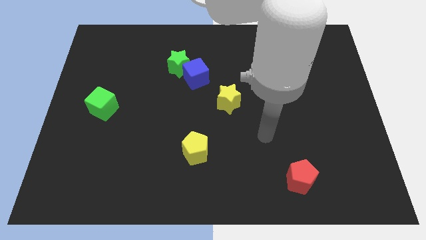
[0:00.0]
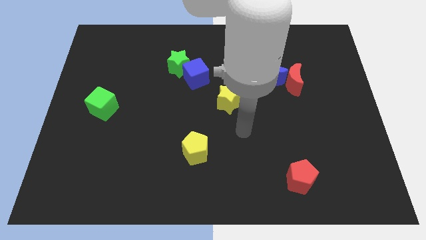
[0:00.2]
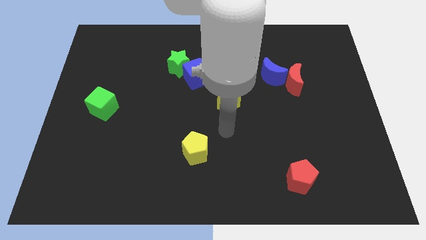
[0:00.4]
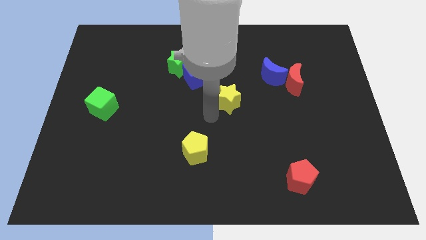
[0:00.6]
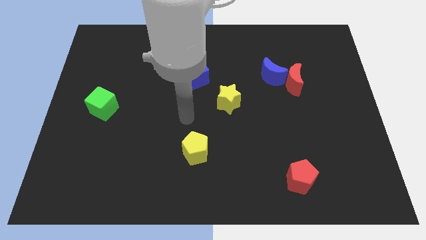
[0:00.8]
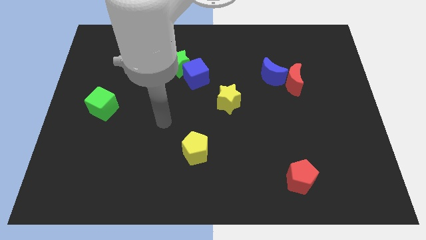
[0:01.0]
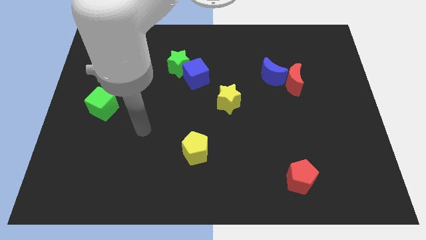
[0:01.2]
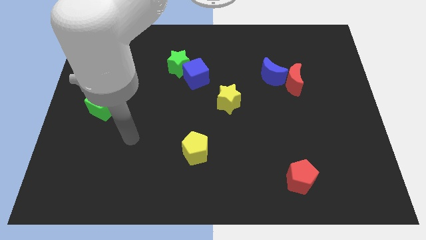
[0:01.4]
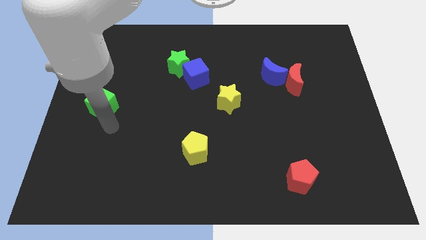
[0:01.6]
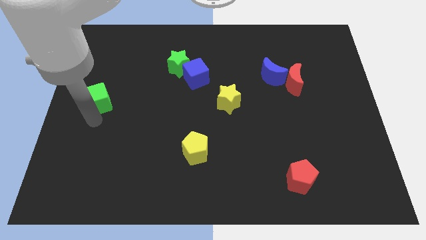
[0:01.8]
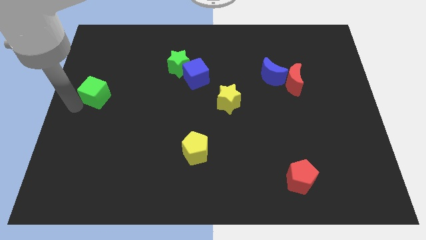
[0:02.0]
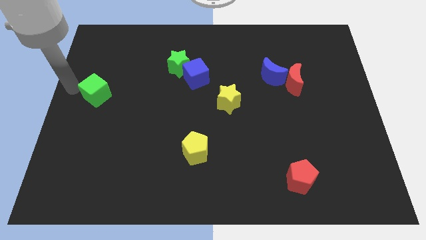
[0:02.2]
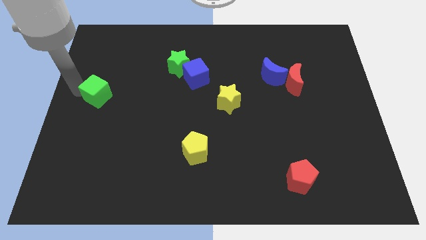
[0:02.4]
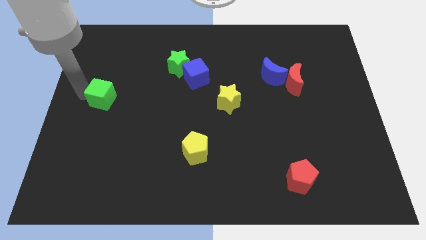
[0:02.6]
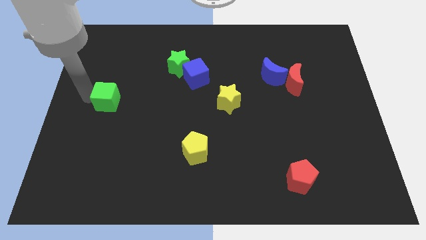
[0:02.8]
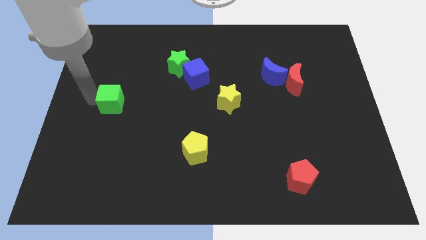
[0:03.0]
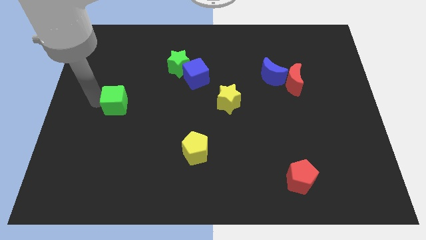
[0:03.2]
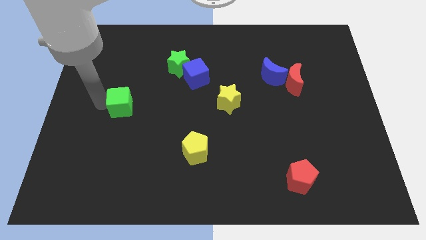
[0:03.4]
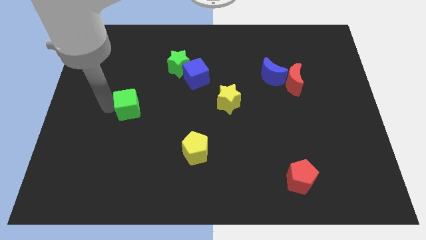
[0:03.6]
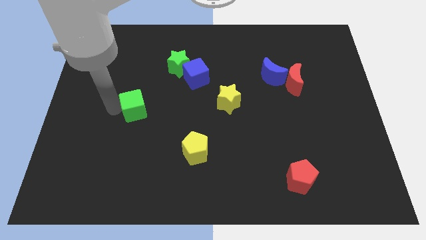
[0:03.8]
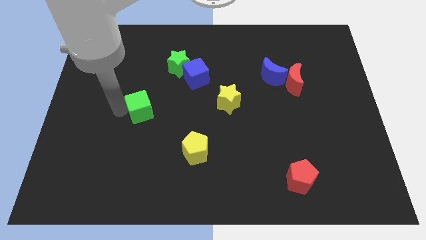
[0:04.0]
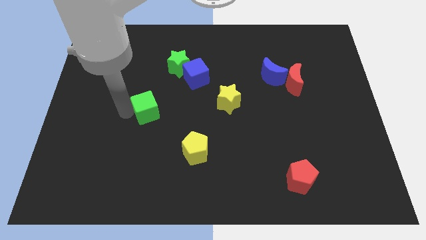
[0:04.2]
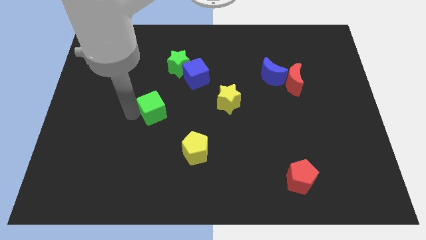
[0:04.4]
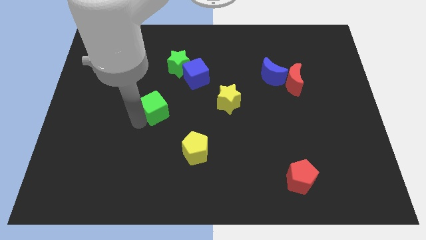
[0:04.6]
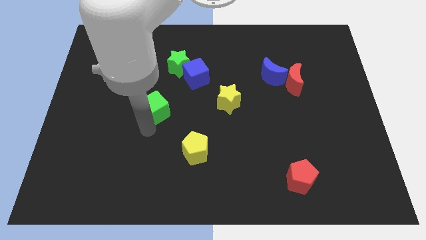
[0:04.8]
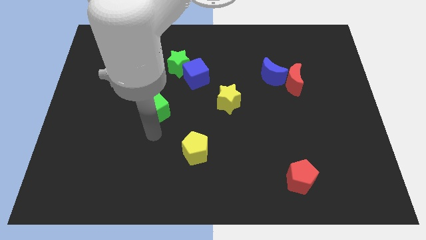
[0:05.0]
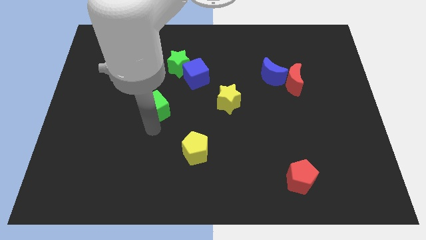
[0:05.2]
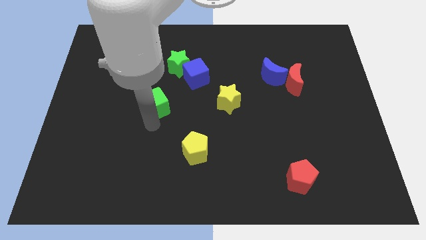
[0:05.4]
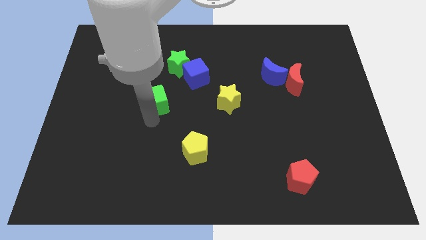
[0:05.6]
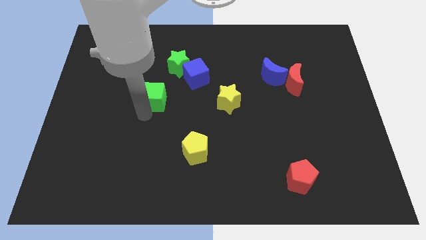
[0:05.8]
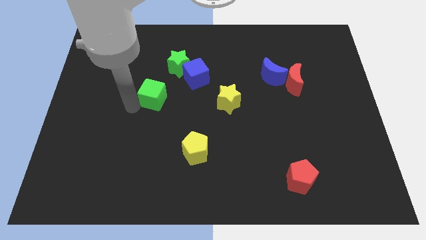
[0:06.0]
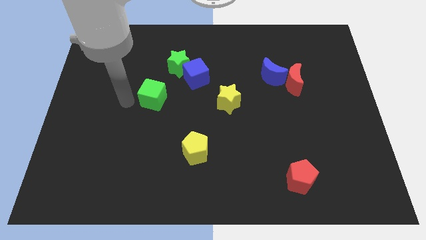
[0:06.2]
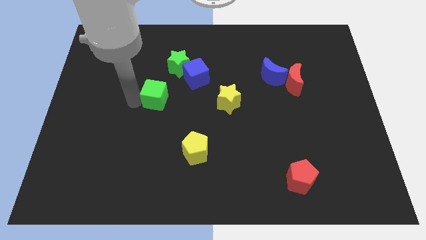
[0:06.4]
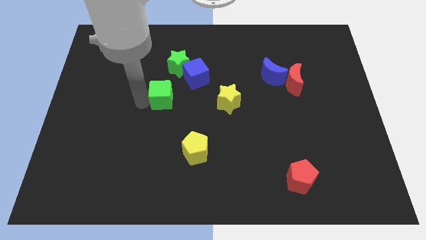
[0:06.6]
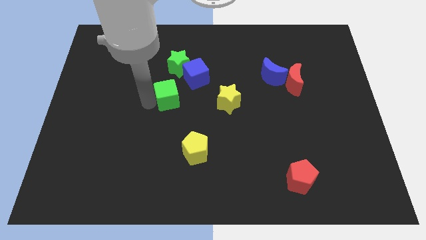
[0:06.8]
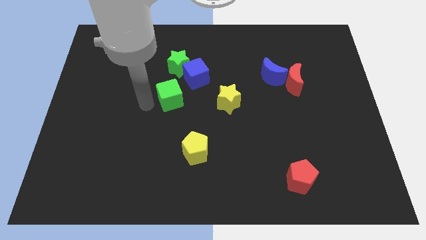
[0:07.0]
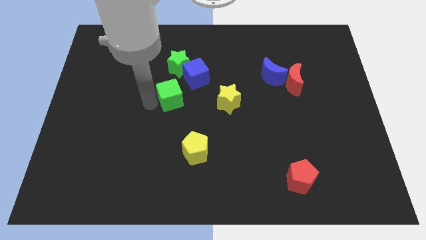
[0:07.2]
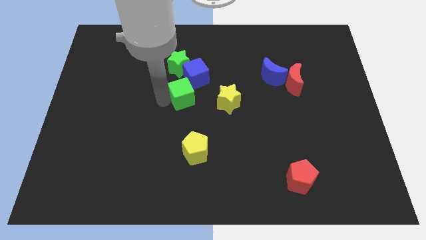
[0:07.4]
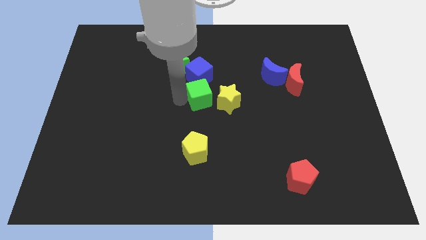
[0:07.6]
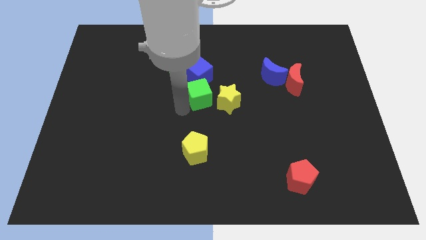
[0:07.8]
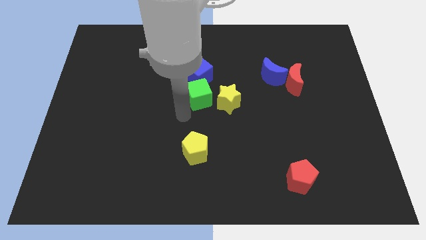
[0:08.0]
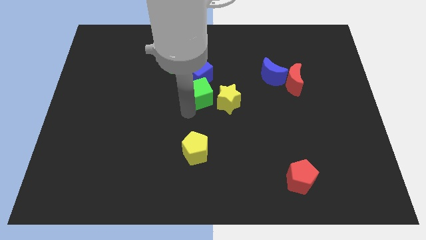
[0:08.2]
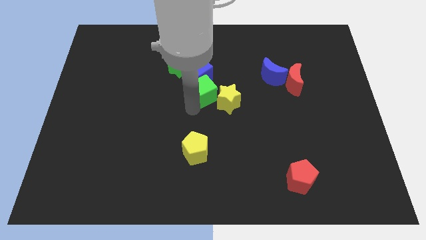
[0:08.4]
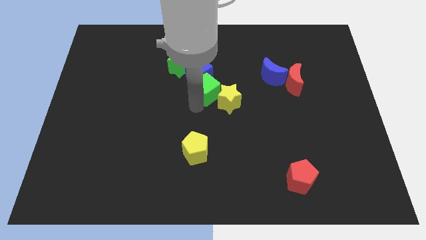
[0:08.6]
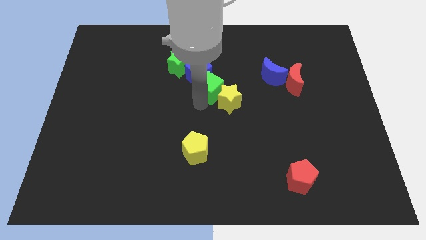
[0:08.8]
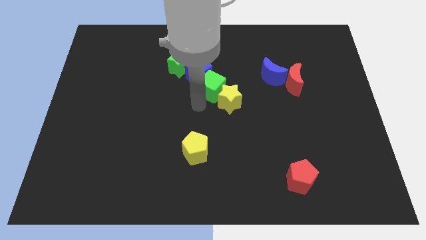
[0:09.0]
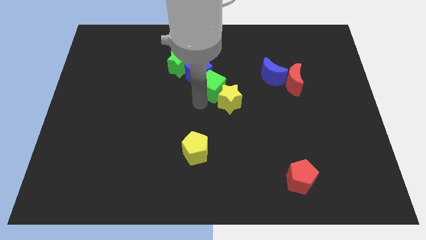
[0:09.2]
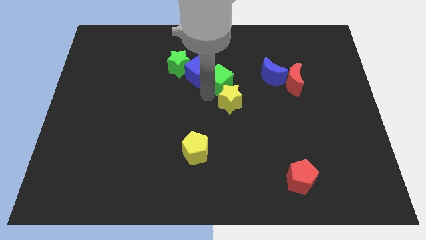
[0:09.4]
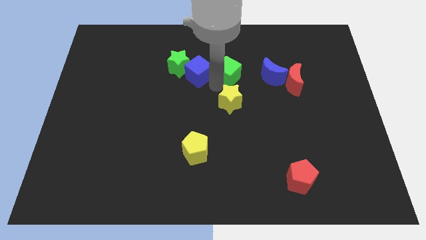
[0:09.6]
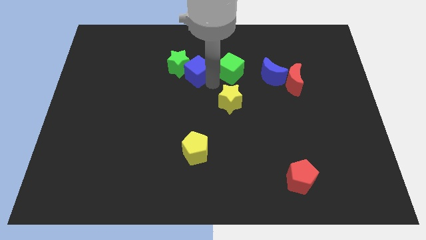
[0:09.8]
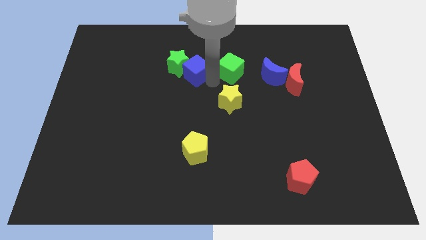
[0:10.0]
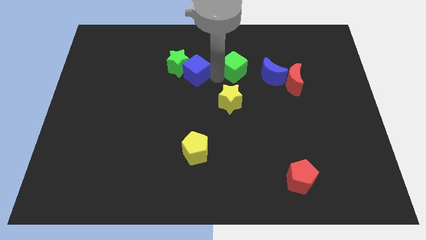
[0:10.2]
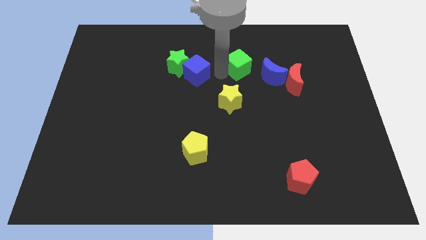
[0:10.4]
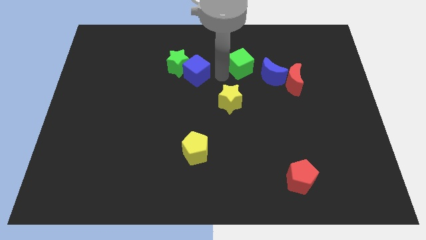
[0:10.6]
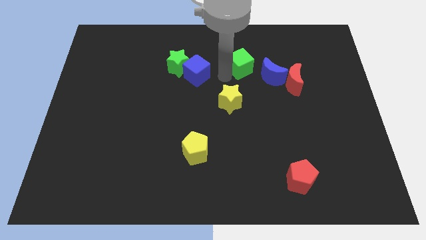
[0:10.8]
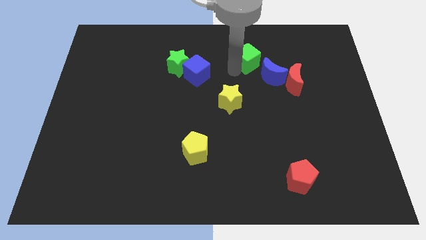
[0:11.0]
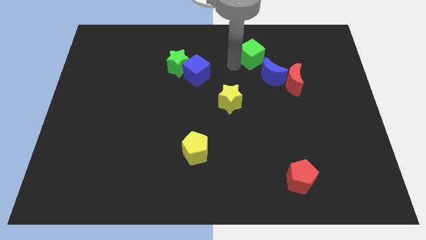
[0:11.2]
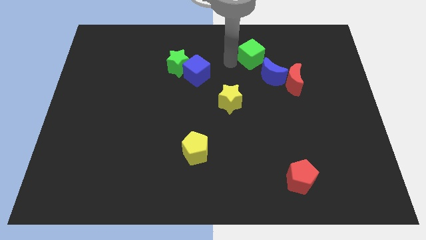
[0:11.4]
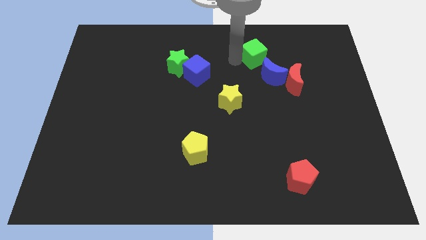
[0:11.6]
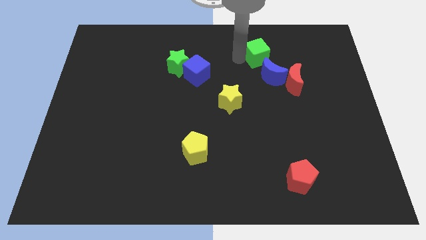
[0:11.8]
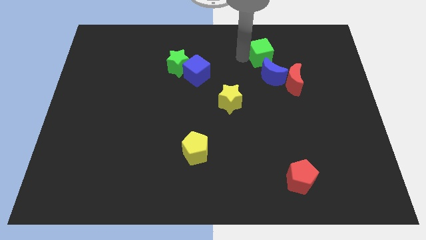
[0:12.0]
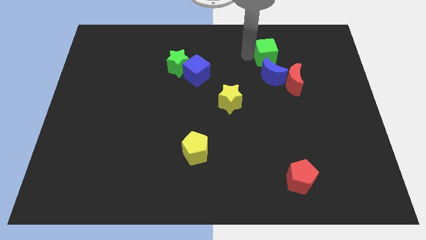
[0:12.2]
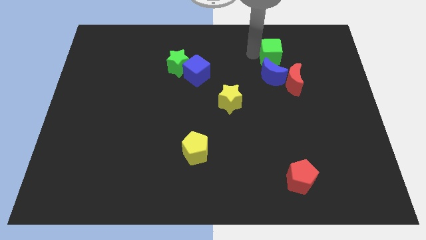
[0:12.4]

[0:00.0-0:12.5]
push the green cube to the top right of the blue moon

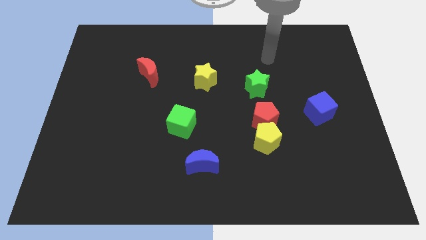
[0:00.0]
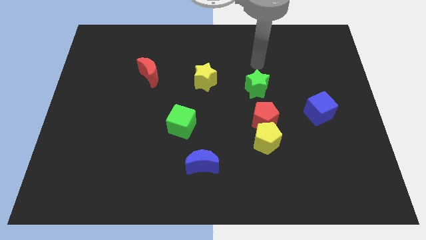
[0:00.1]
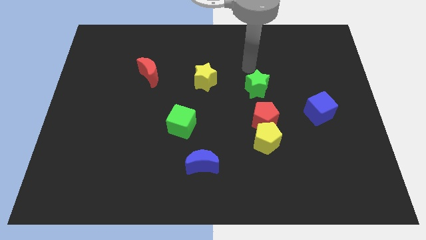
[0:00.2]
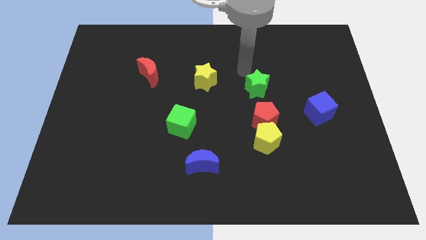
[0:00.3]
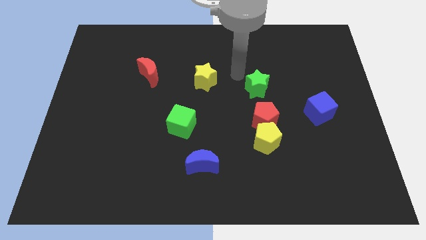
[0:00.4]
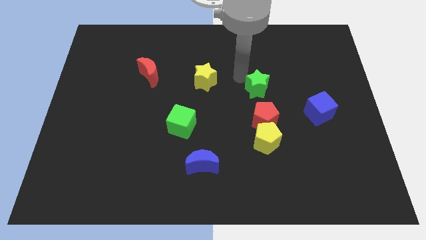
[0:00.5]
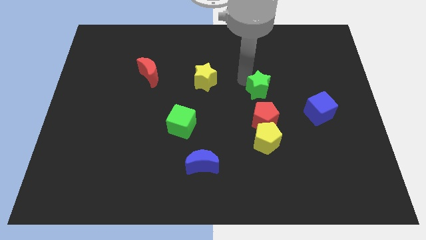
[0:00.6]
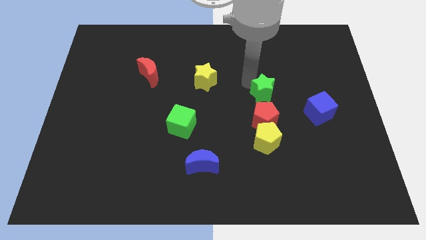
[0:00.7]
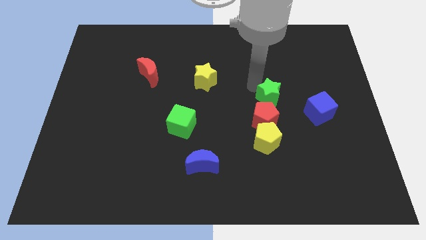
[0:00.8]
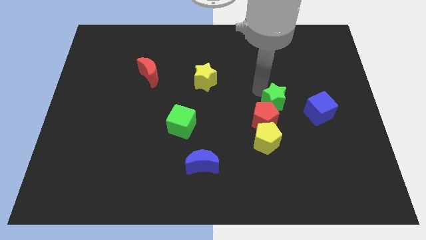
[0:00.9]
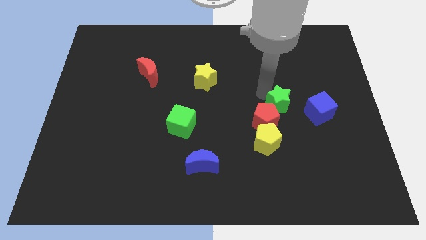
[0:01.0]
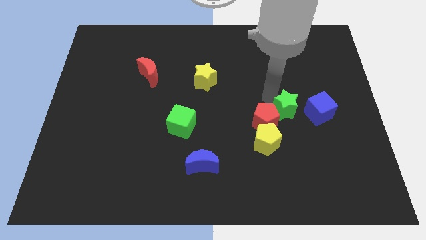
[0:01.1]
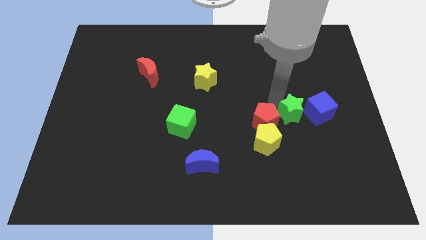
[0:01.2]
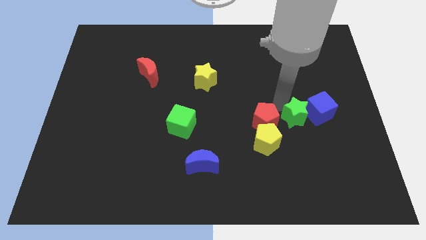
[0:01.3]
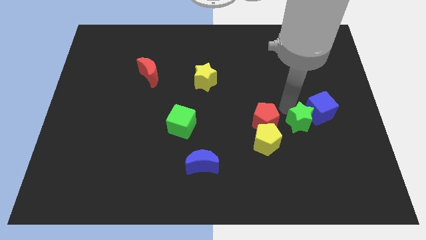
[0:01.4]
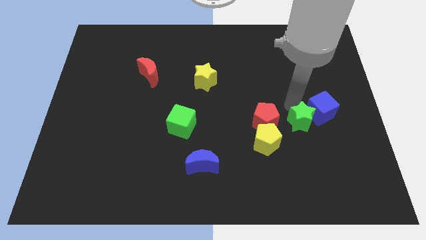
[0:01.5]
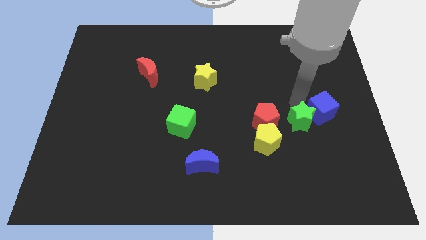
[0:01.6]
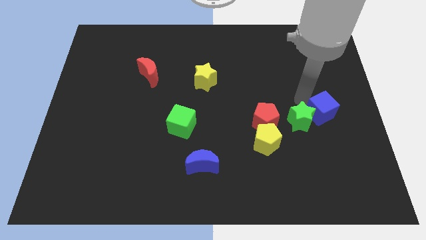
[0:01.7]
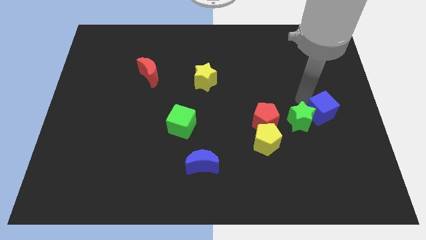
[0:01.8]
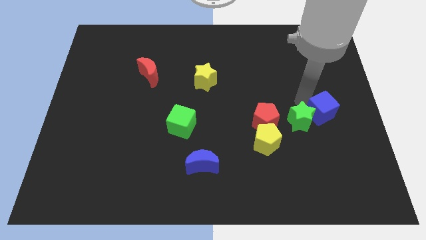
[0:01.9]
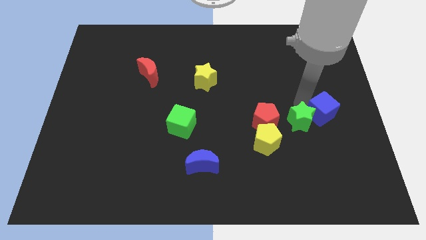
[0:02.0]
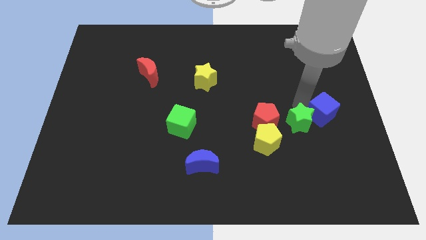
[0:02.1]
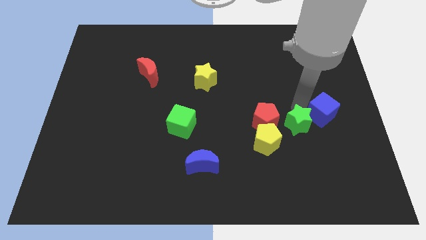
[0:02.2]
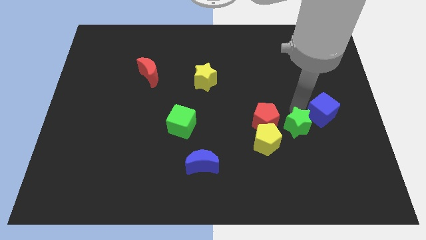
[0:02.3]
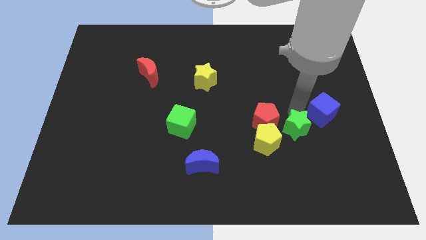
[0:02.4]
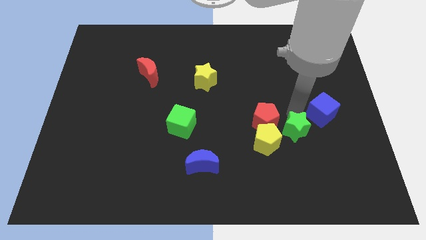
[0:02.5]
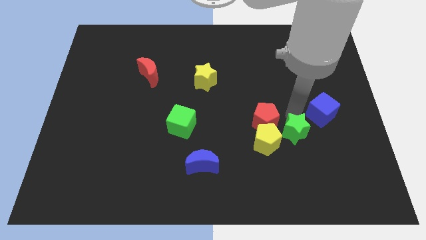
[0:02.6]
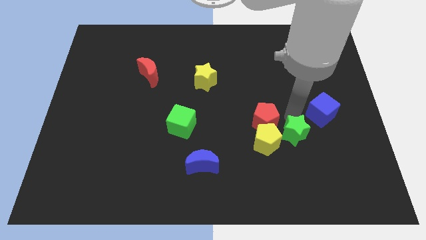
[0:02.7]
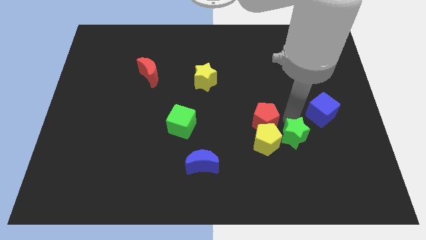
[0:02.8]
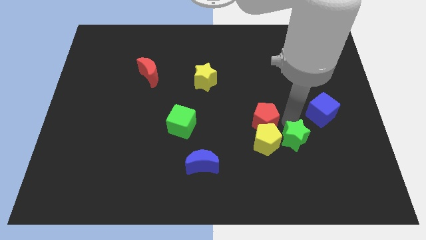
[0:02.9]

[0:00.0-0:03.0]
put the green star diagonally down and to the right of the yellow pentagon
